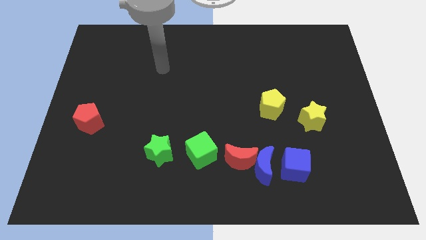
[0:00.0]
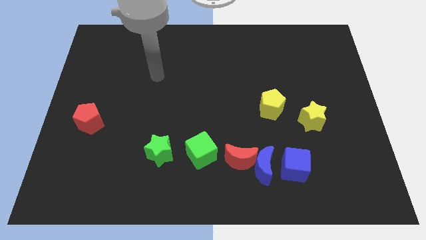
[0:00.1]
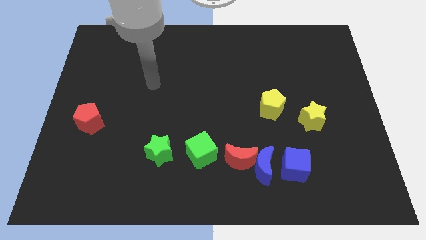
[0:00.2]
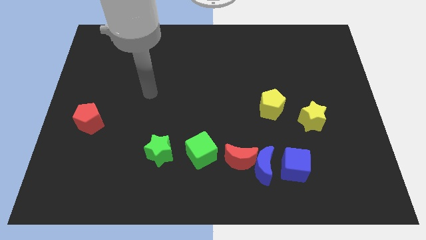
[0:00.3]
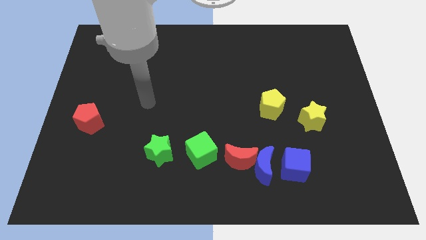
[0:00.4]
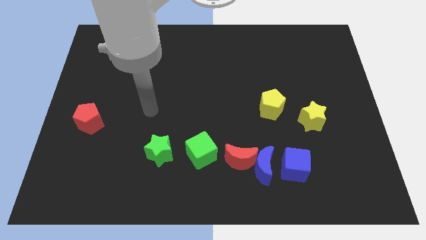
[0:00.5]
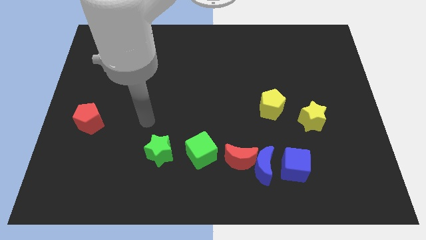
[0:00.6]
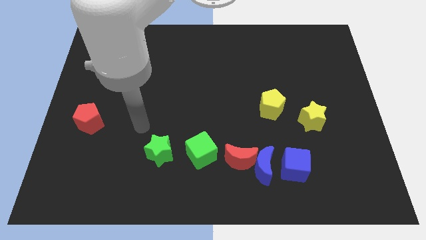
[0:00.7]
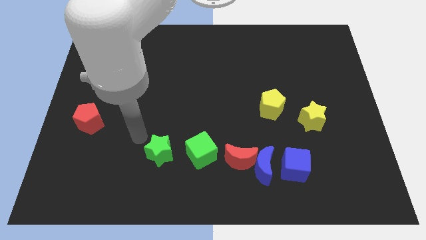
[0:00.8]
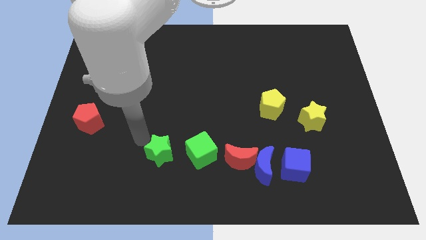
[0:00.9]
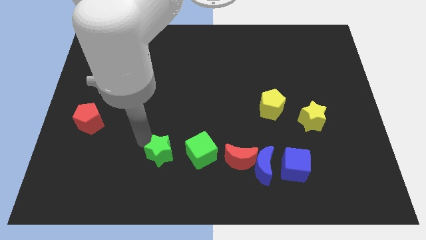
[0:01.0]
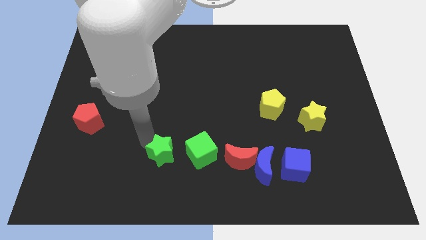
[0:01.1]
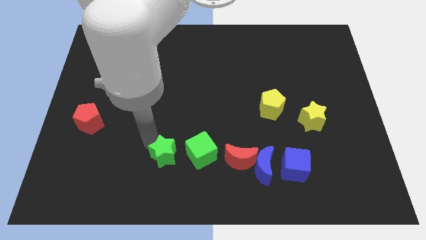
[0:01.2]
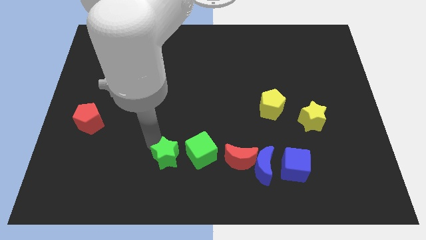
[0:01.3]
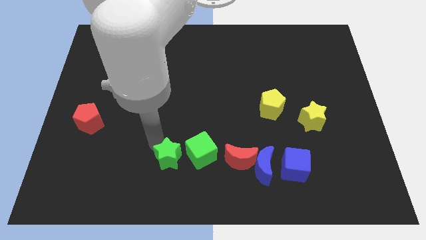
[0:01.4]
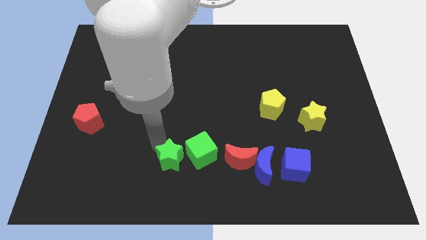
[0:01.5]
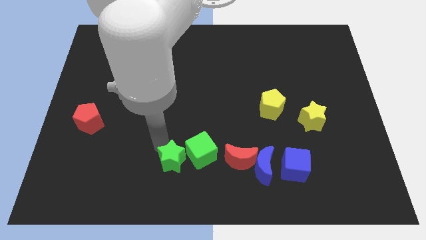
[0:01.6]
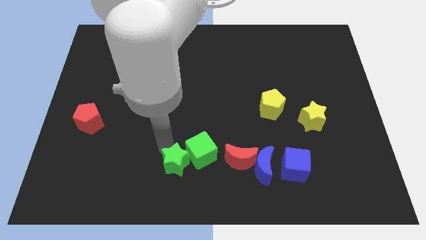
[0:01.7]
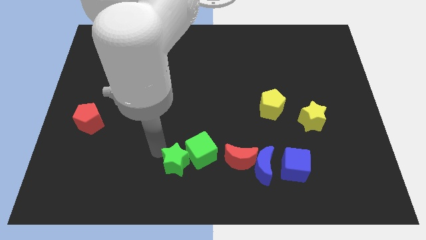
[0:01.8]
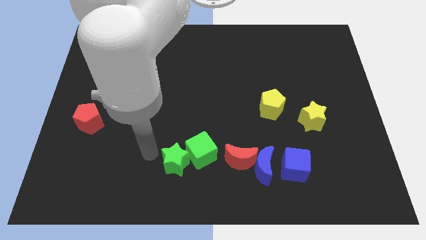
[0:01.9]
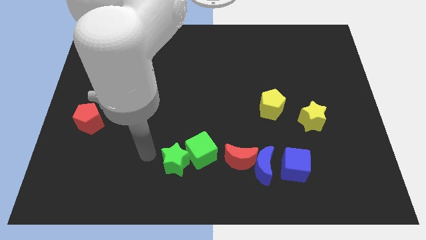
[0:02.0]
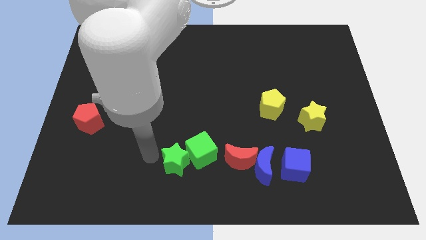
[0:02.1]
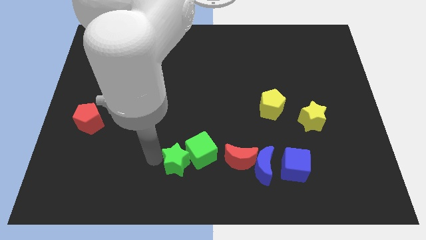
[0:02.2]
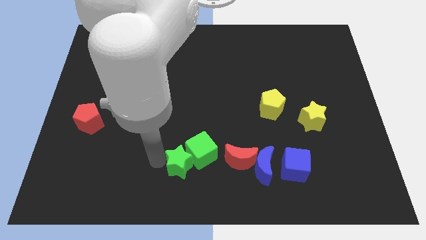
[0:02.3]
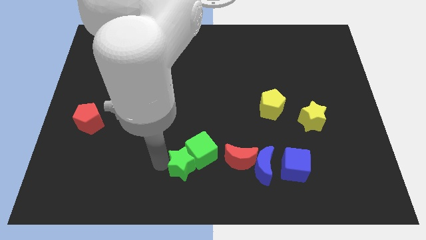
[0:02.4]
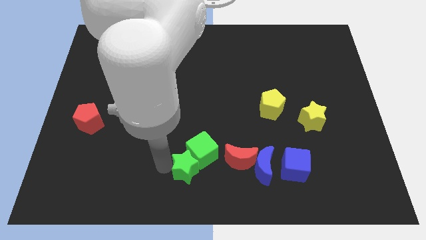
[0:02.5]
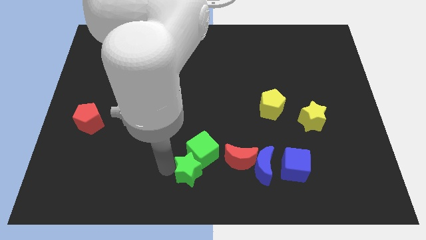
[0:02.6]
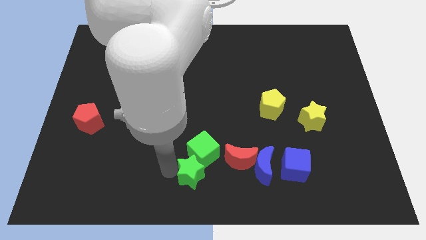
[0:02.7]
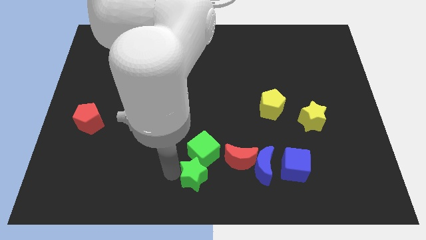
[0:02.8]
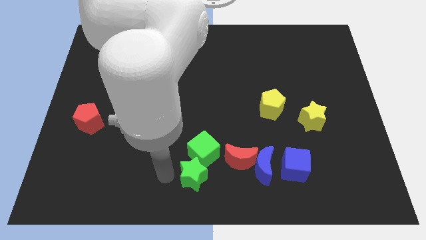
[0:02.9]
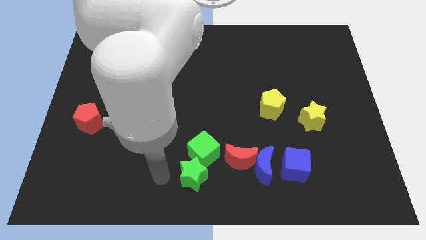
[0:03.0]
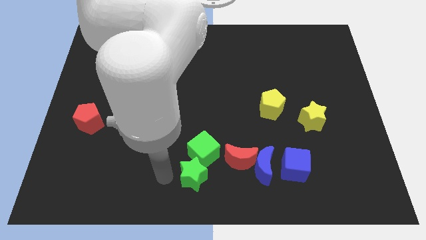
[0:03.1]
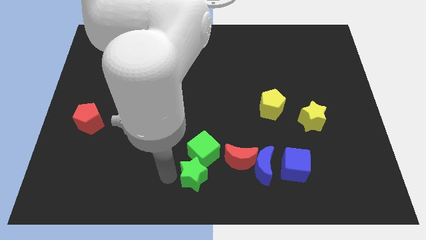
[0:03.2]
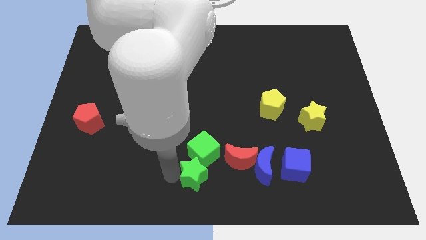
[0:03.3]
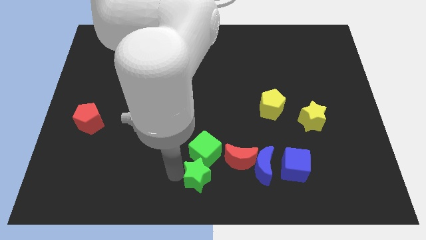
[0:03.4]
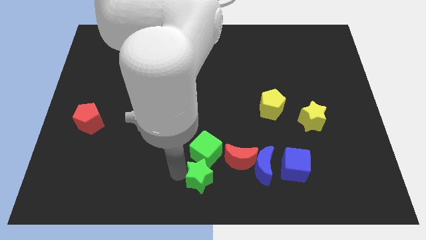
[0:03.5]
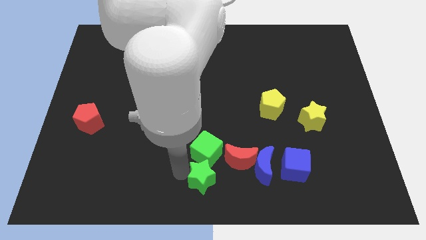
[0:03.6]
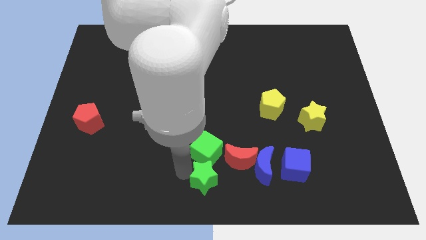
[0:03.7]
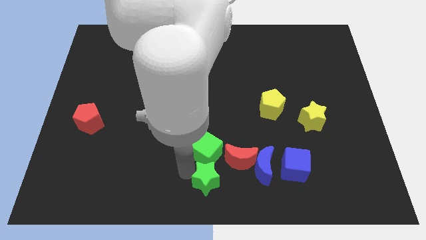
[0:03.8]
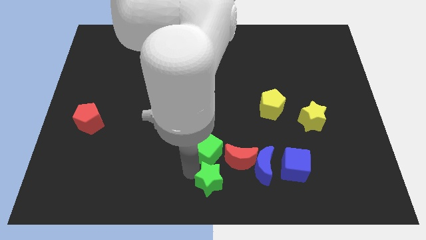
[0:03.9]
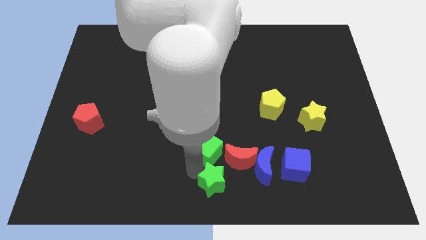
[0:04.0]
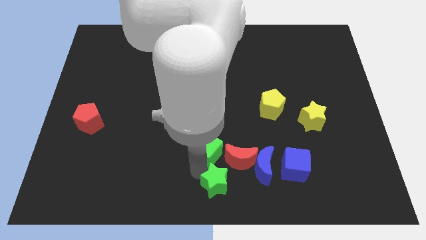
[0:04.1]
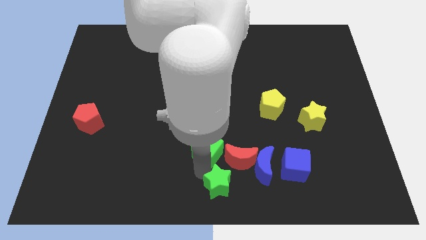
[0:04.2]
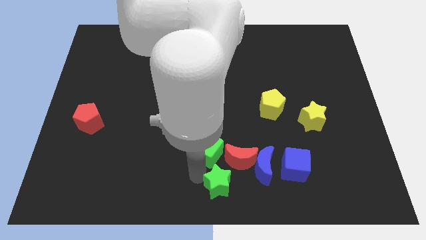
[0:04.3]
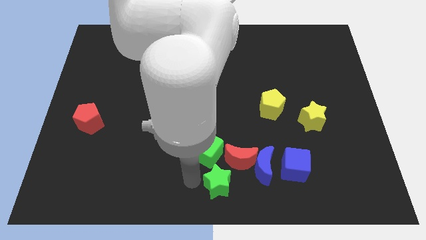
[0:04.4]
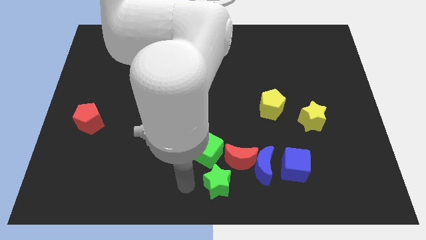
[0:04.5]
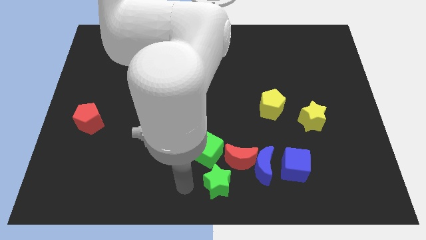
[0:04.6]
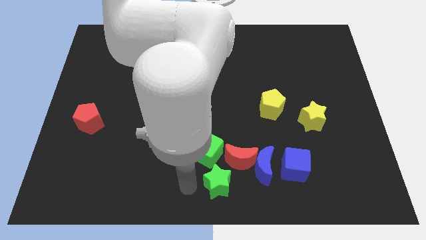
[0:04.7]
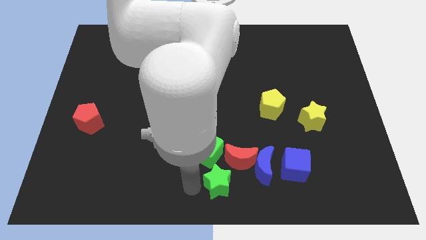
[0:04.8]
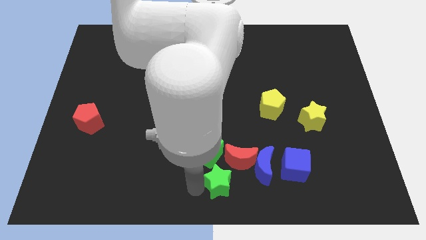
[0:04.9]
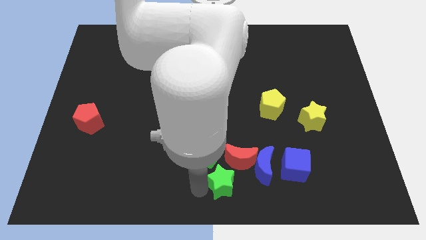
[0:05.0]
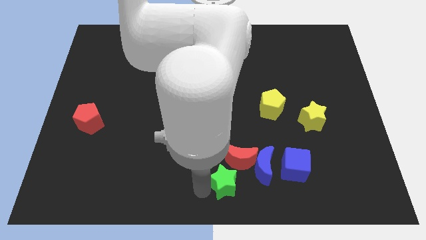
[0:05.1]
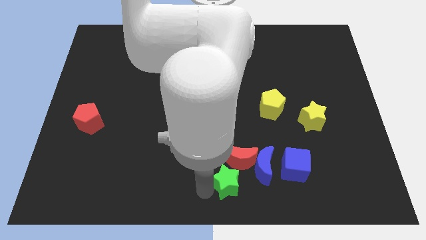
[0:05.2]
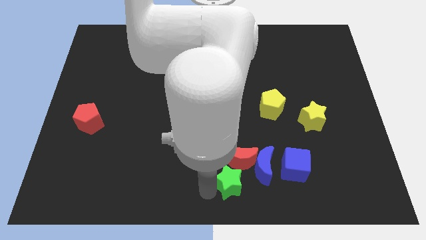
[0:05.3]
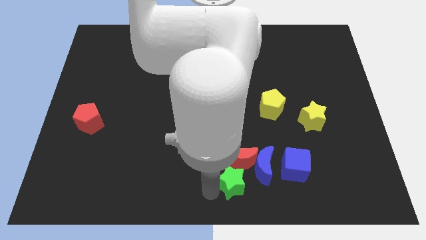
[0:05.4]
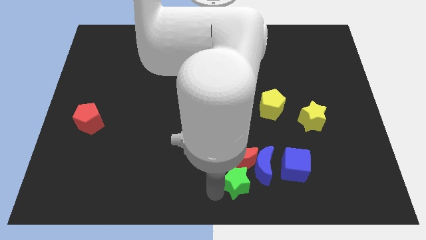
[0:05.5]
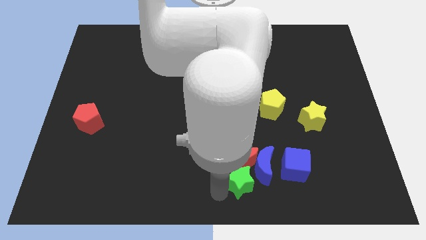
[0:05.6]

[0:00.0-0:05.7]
move the green star close to the blue moon

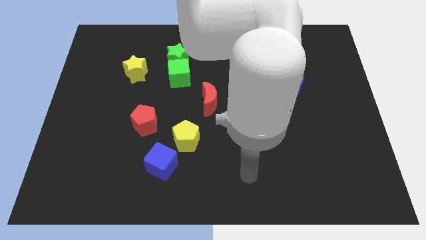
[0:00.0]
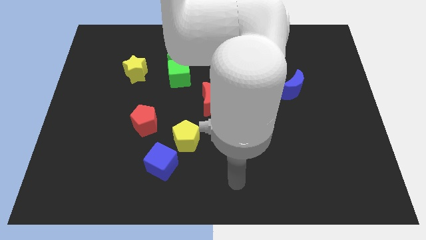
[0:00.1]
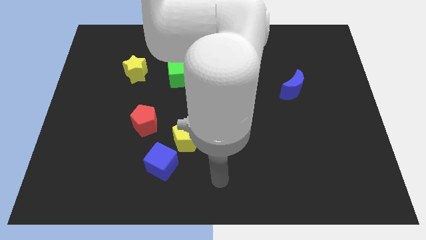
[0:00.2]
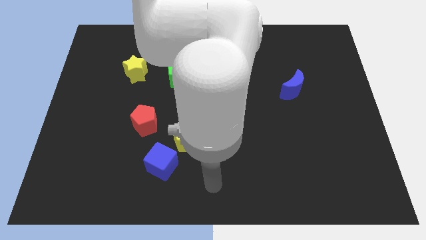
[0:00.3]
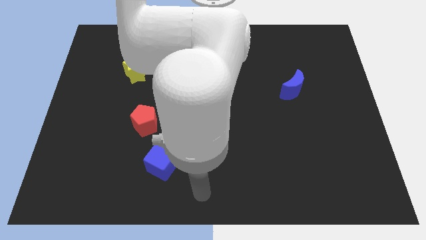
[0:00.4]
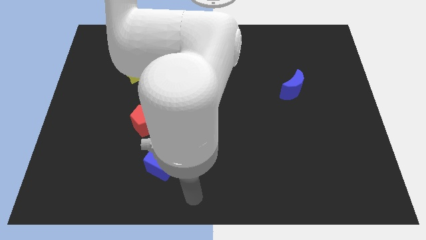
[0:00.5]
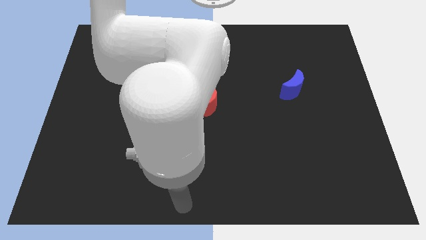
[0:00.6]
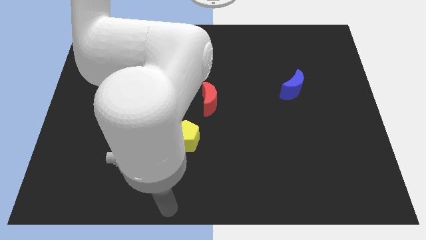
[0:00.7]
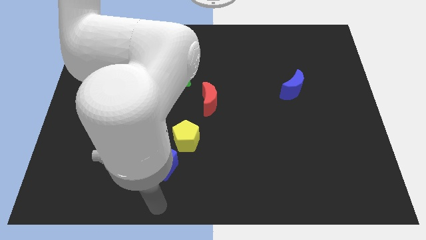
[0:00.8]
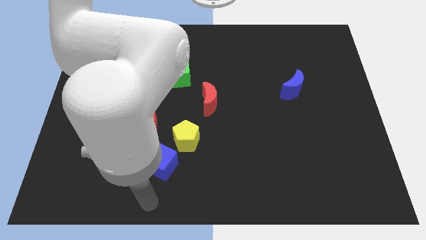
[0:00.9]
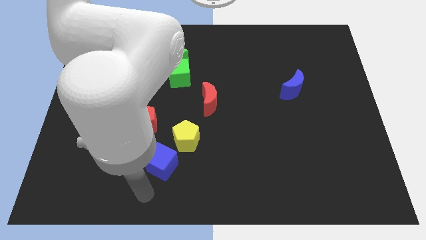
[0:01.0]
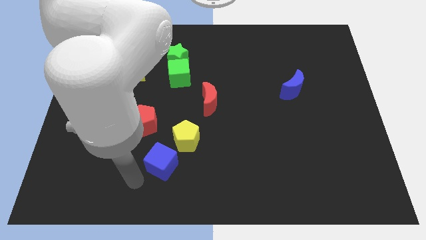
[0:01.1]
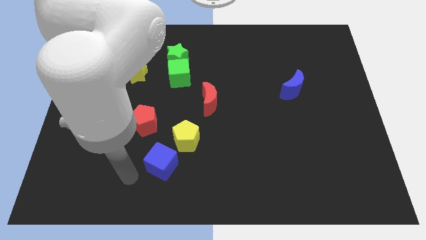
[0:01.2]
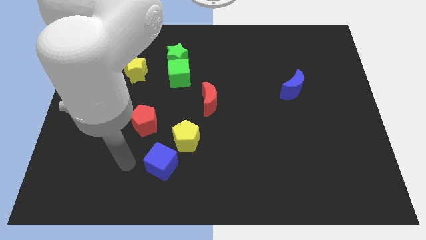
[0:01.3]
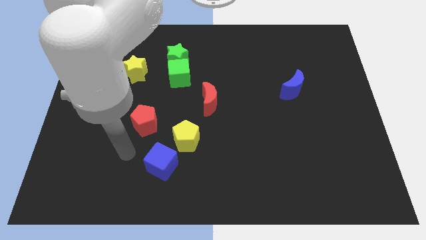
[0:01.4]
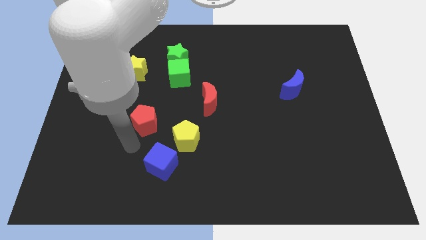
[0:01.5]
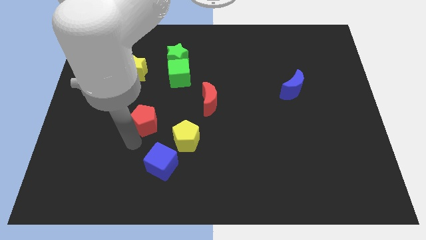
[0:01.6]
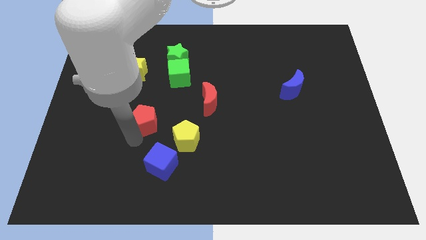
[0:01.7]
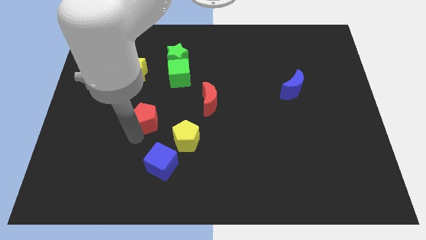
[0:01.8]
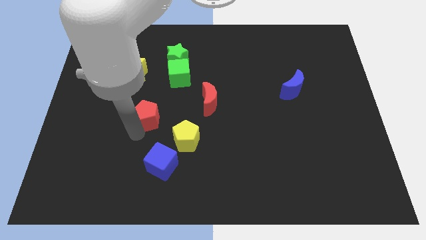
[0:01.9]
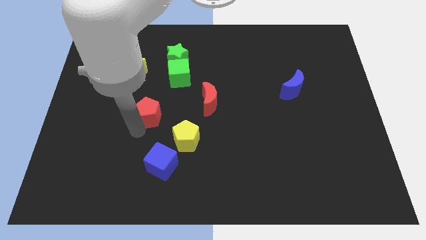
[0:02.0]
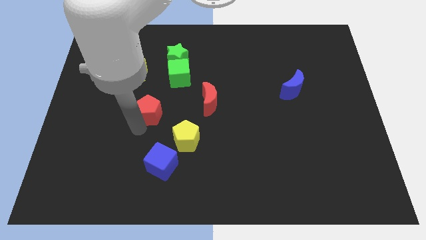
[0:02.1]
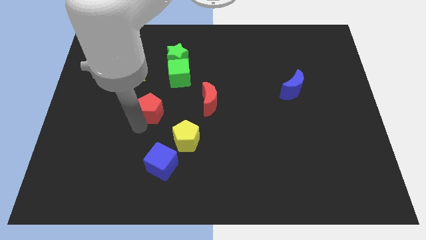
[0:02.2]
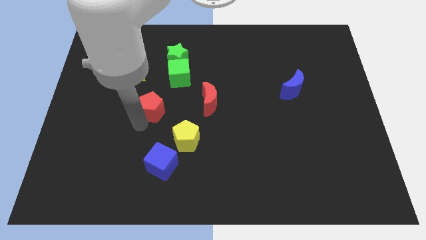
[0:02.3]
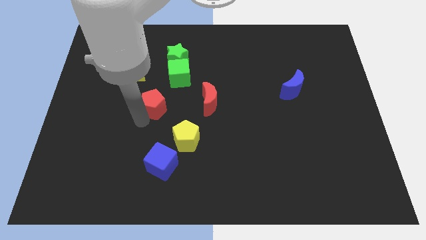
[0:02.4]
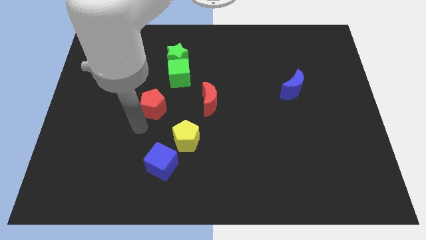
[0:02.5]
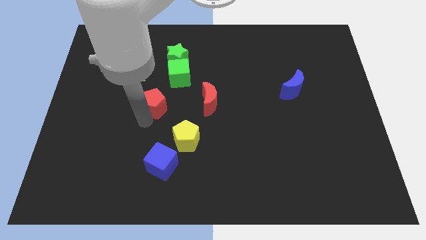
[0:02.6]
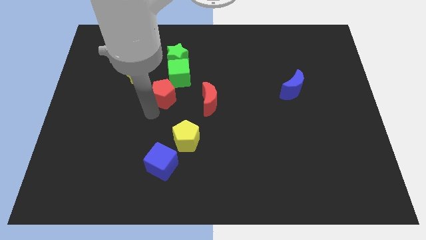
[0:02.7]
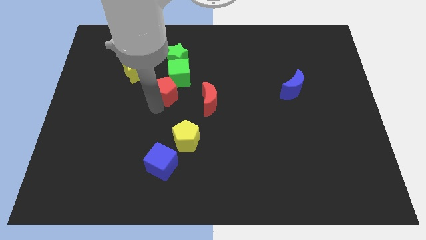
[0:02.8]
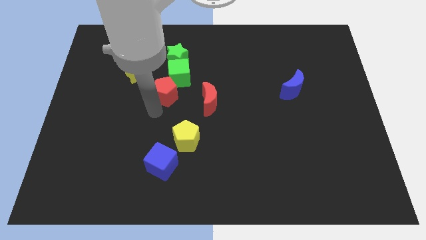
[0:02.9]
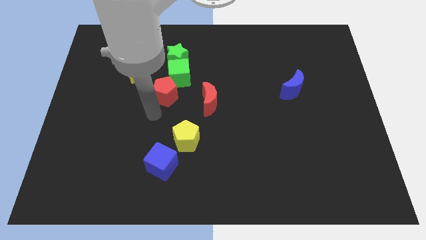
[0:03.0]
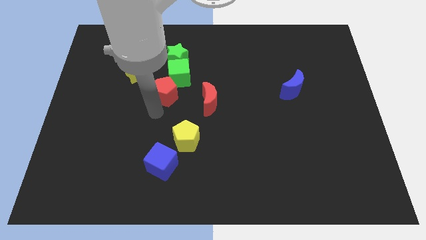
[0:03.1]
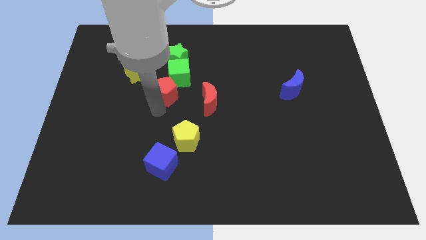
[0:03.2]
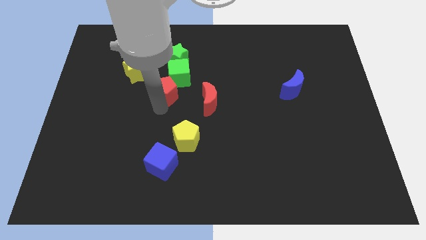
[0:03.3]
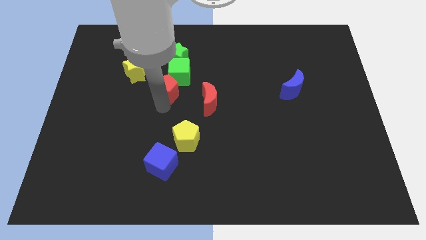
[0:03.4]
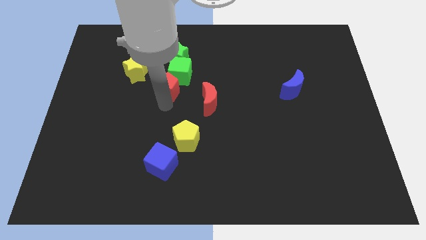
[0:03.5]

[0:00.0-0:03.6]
move the red pentagon to the green cube
